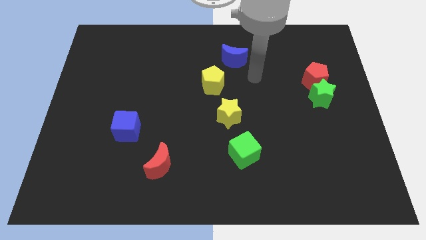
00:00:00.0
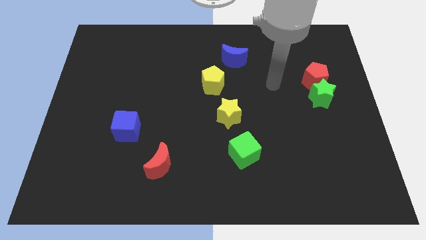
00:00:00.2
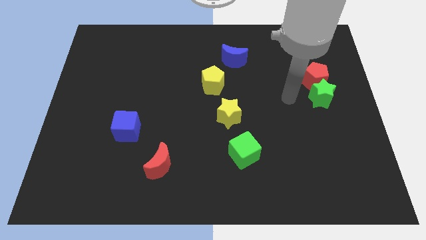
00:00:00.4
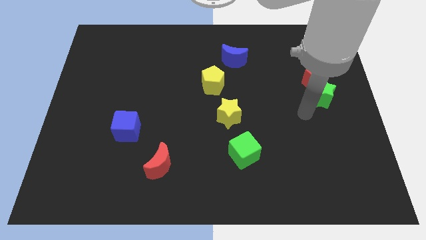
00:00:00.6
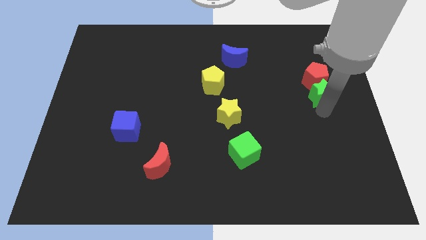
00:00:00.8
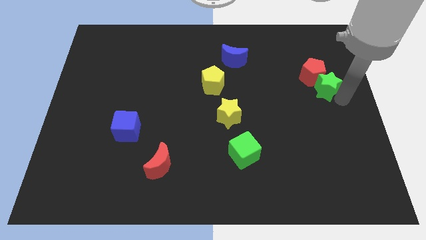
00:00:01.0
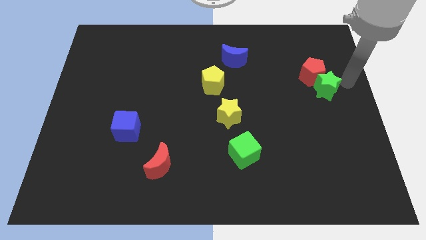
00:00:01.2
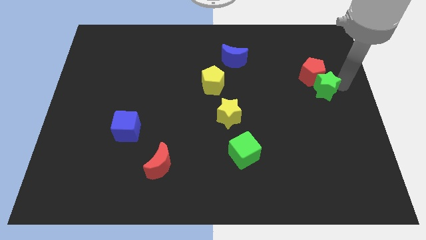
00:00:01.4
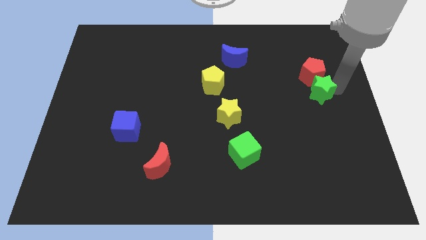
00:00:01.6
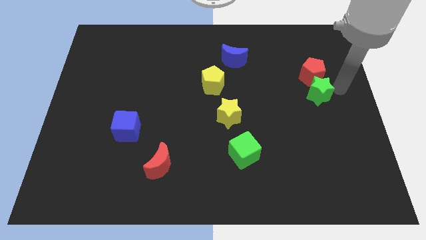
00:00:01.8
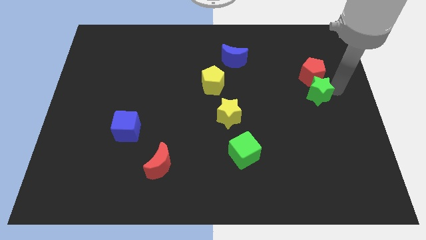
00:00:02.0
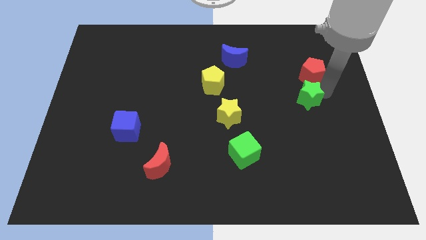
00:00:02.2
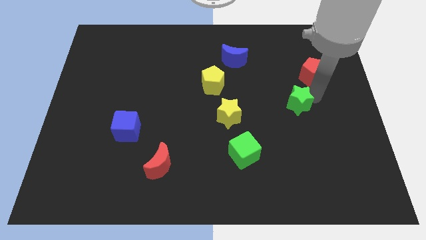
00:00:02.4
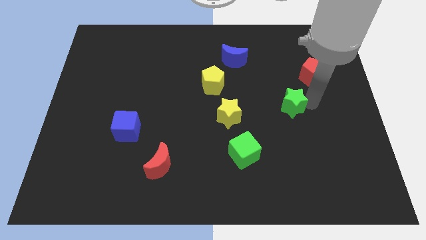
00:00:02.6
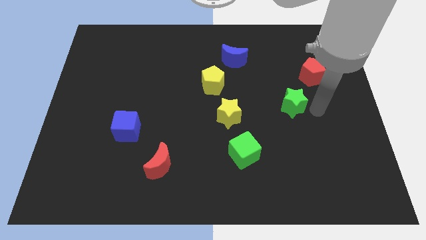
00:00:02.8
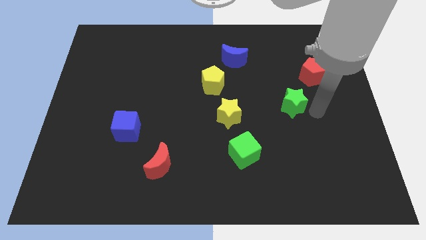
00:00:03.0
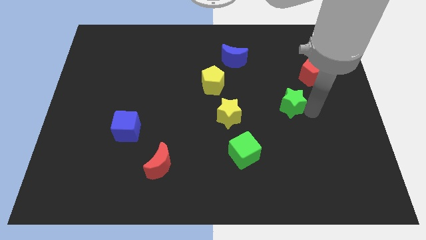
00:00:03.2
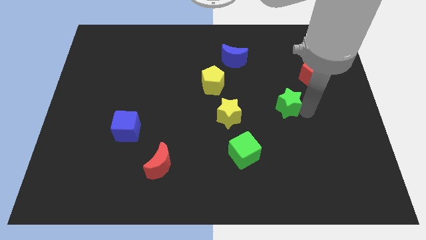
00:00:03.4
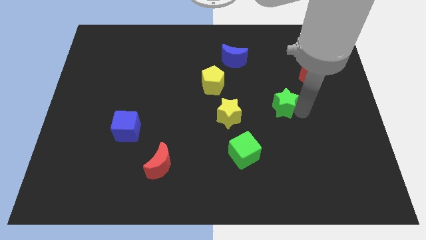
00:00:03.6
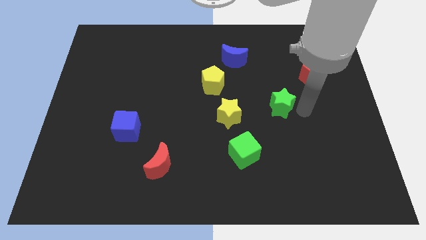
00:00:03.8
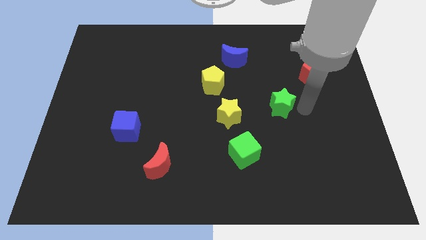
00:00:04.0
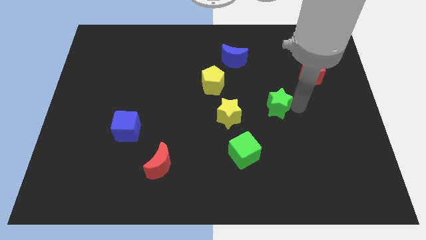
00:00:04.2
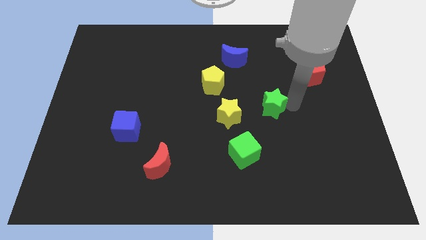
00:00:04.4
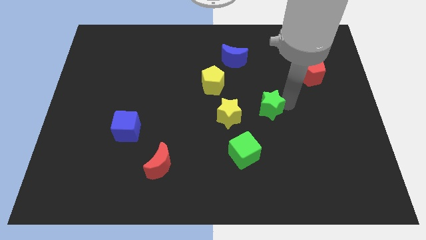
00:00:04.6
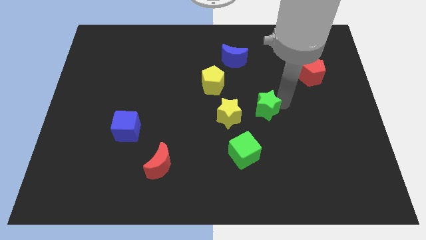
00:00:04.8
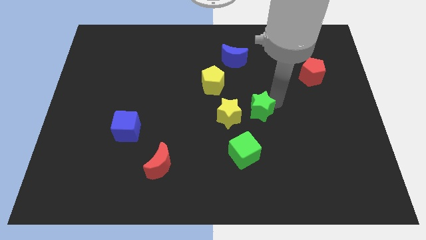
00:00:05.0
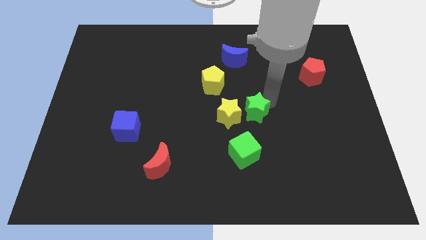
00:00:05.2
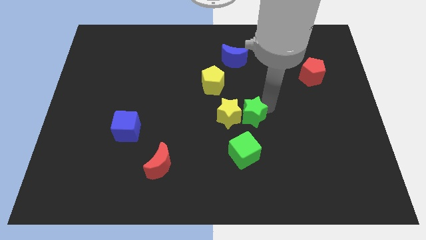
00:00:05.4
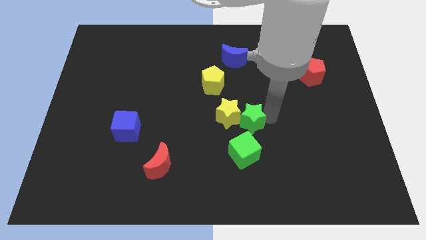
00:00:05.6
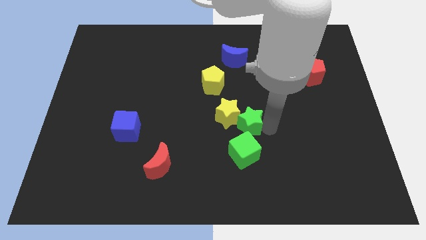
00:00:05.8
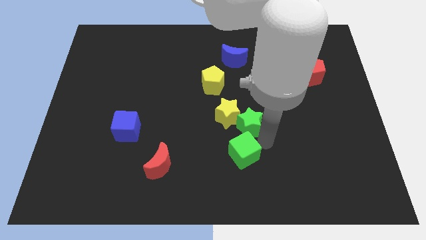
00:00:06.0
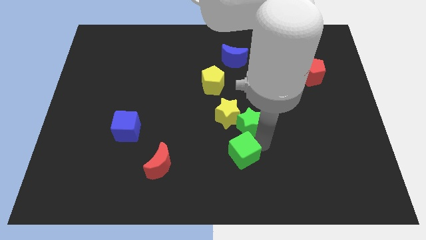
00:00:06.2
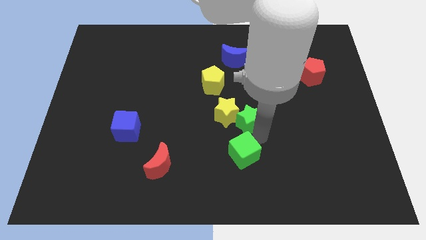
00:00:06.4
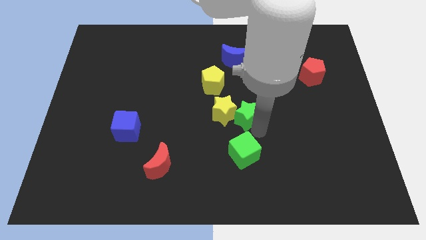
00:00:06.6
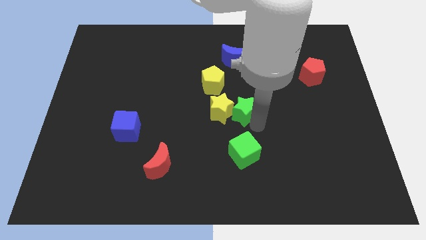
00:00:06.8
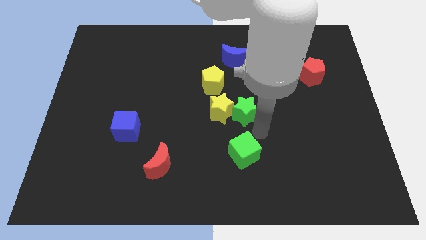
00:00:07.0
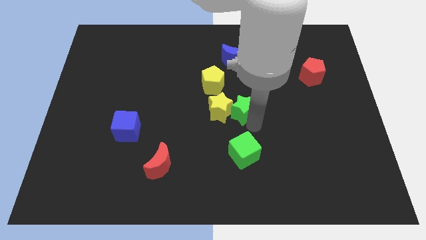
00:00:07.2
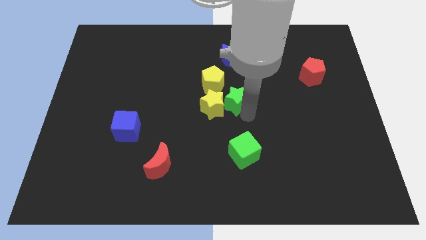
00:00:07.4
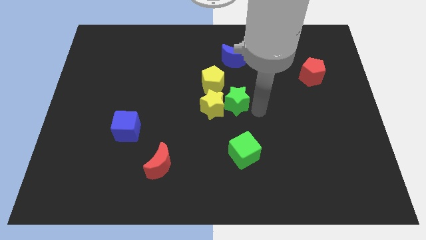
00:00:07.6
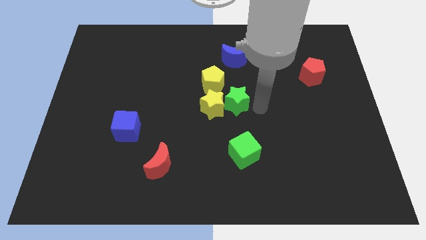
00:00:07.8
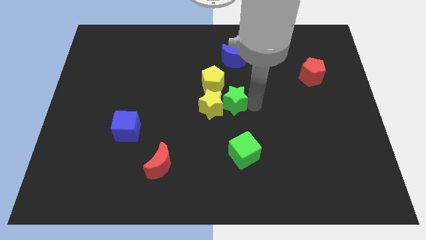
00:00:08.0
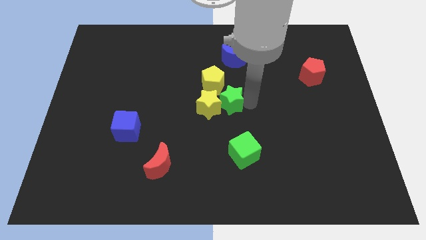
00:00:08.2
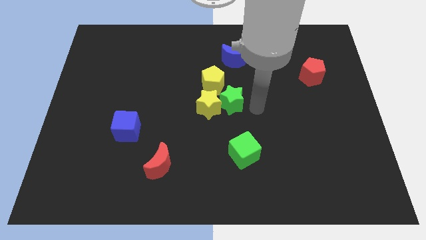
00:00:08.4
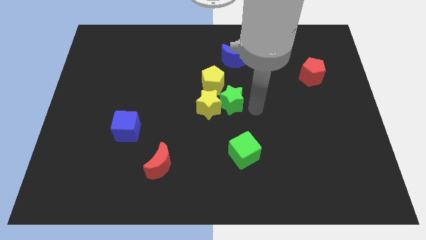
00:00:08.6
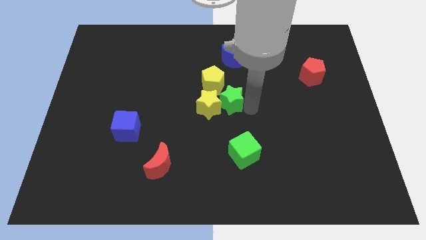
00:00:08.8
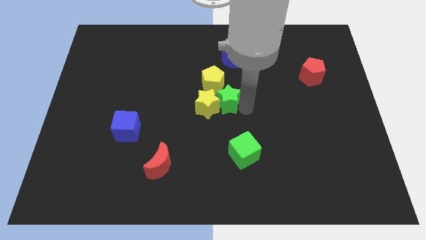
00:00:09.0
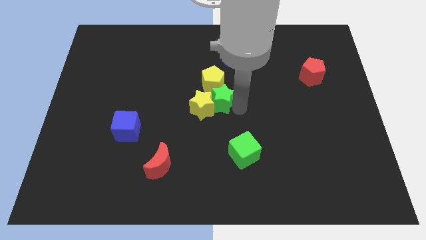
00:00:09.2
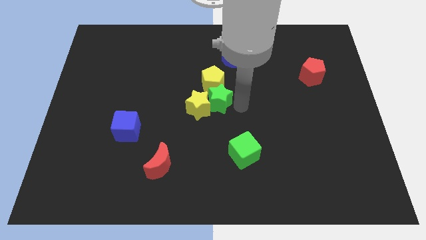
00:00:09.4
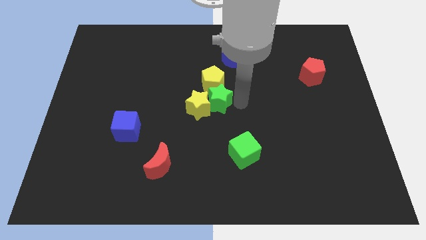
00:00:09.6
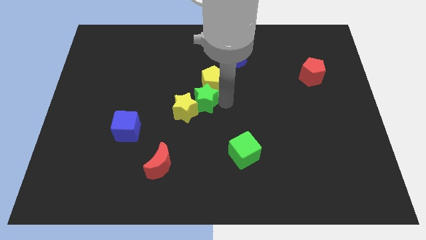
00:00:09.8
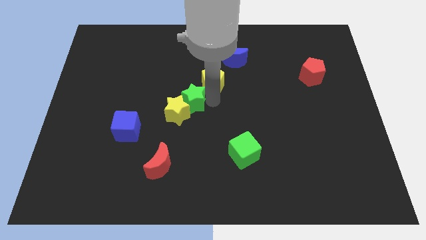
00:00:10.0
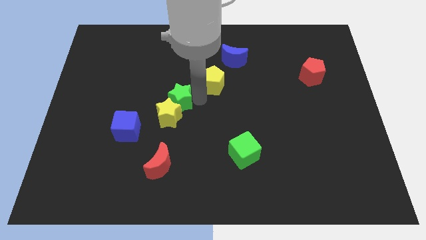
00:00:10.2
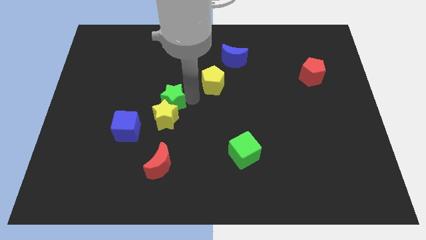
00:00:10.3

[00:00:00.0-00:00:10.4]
slide the green star to the top right side of the blue cube

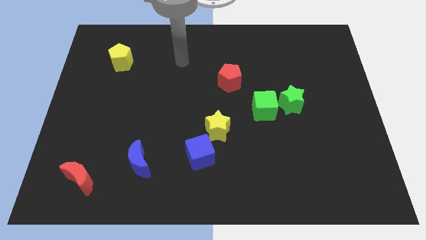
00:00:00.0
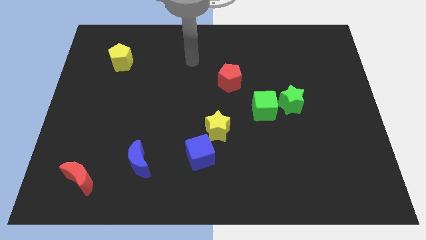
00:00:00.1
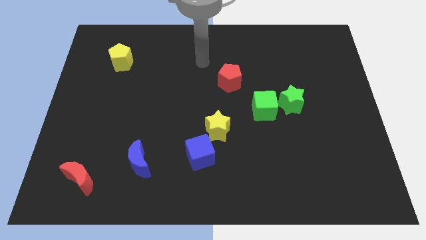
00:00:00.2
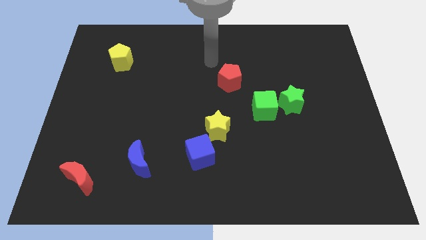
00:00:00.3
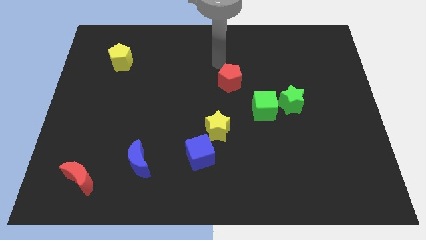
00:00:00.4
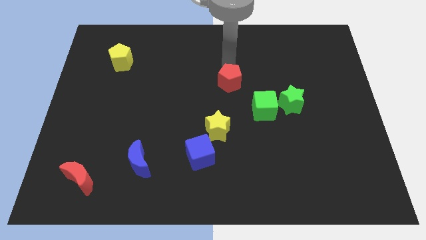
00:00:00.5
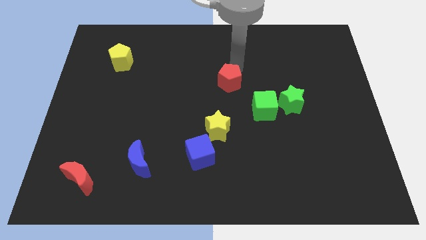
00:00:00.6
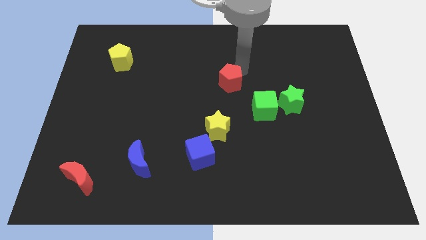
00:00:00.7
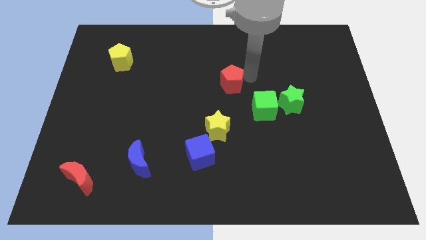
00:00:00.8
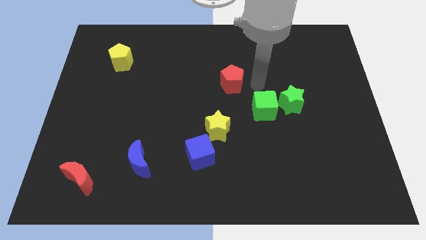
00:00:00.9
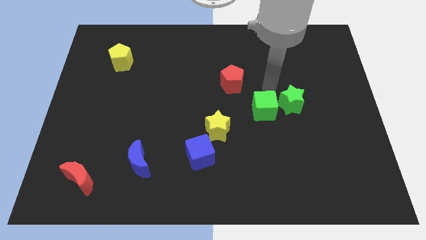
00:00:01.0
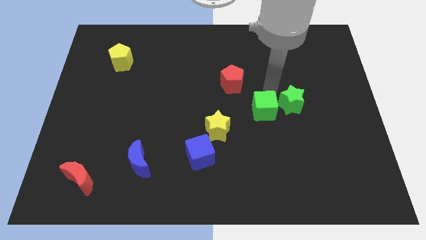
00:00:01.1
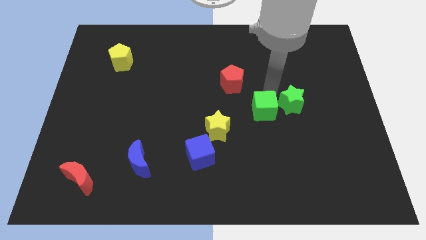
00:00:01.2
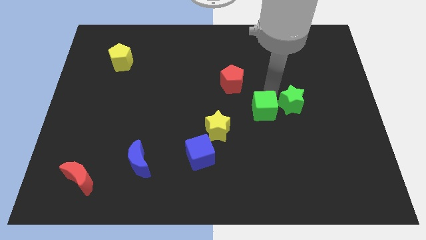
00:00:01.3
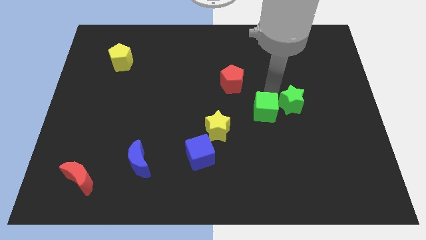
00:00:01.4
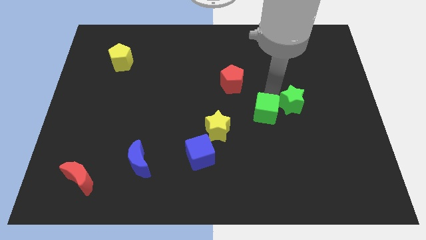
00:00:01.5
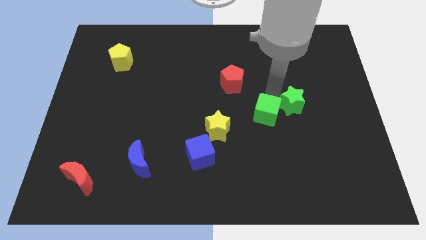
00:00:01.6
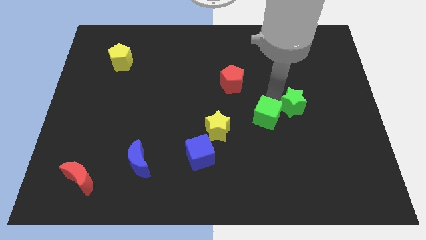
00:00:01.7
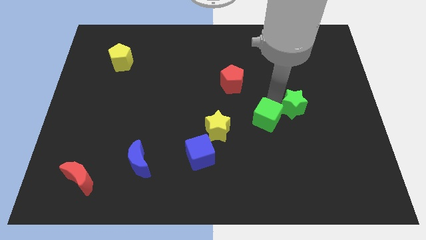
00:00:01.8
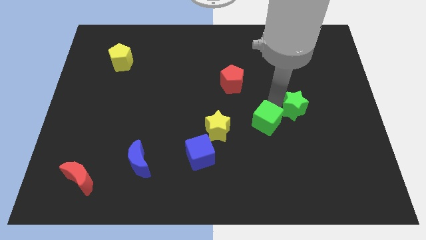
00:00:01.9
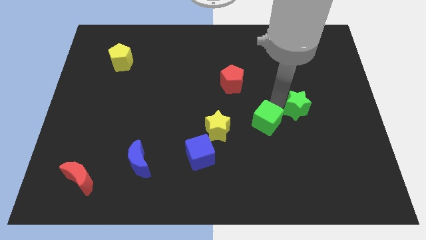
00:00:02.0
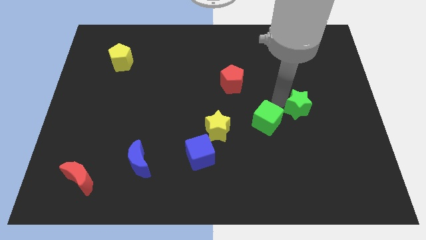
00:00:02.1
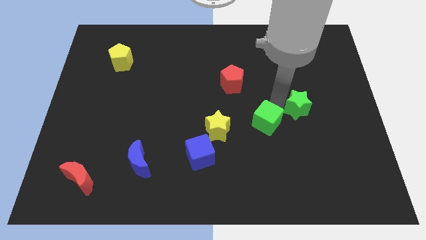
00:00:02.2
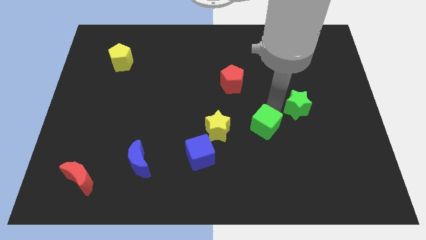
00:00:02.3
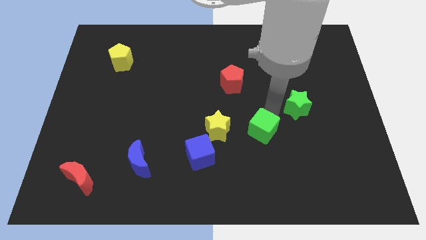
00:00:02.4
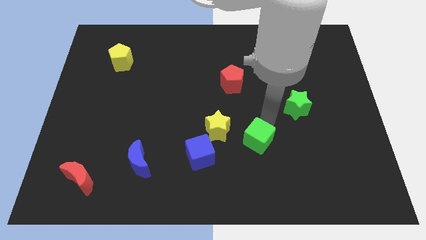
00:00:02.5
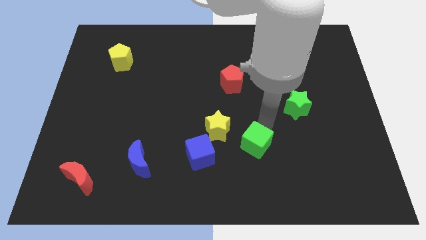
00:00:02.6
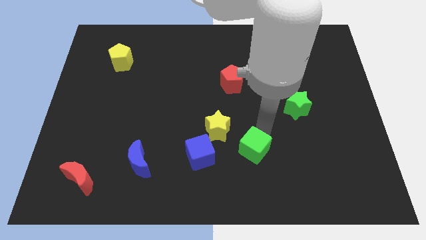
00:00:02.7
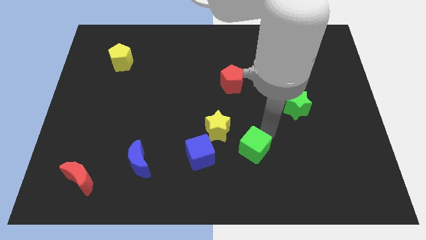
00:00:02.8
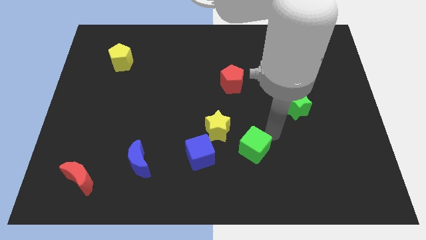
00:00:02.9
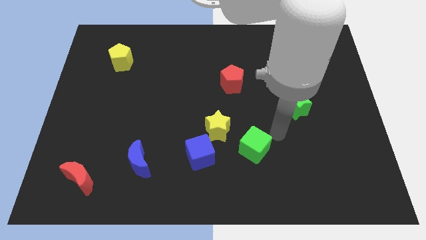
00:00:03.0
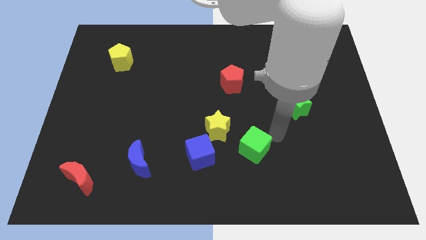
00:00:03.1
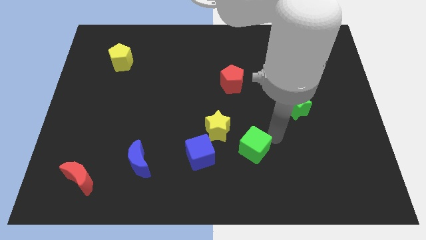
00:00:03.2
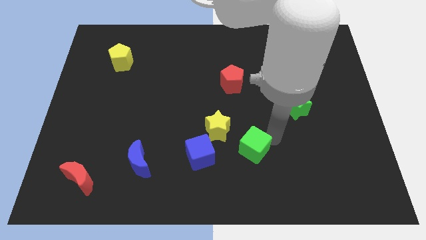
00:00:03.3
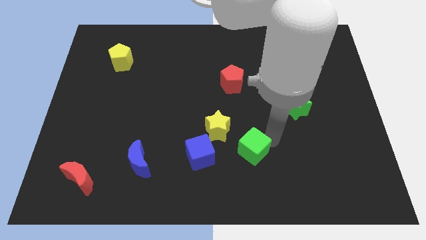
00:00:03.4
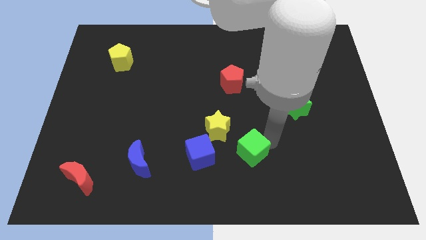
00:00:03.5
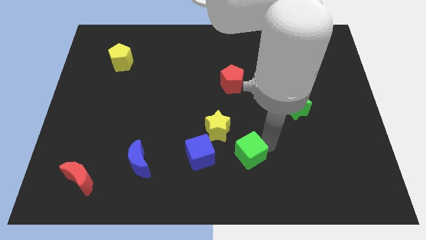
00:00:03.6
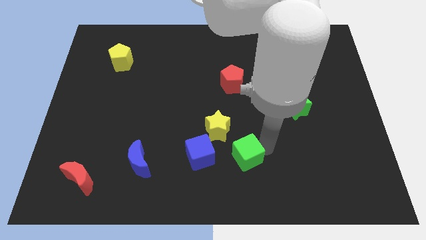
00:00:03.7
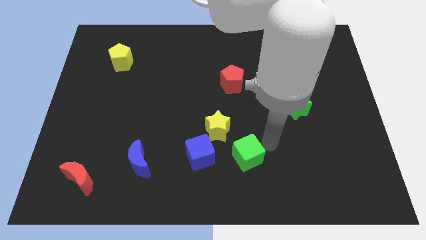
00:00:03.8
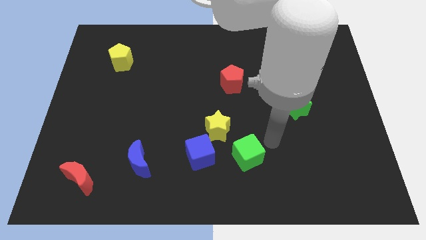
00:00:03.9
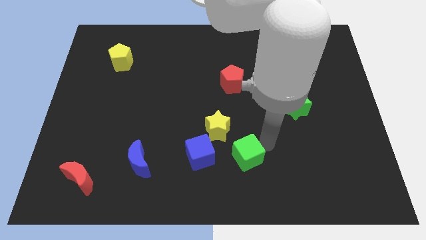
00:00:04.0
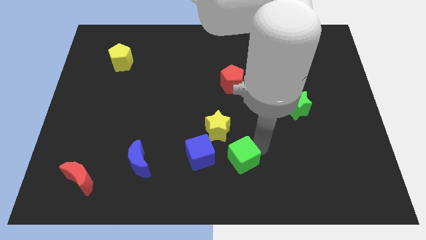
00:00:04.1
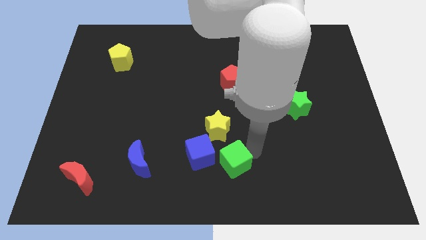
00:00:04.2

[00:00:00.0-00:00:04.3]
slide the green cube to the bottom of the yellow star
